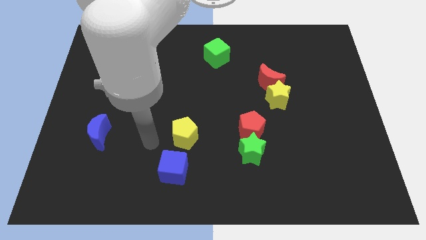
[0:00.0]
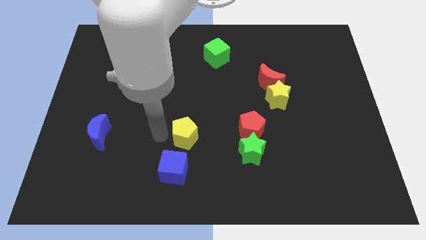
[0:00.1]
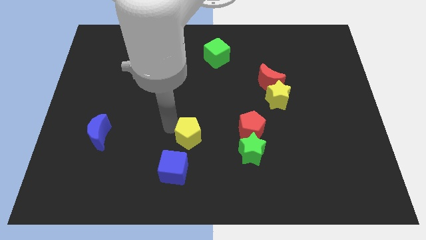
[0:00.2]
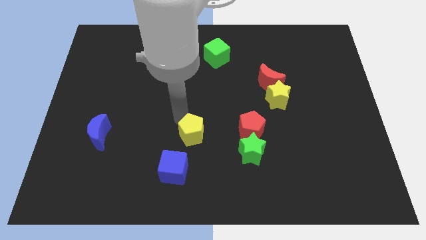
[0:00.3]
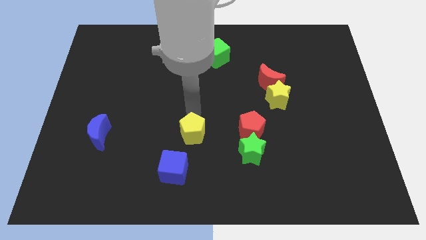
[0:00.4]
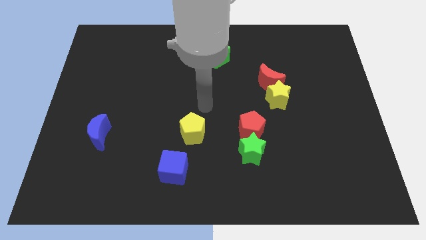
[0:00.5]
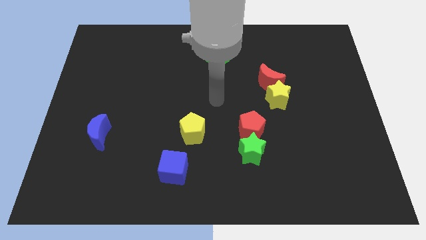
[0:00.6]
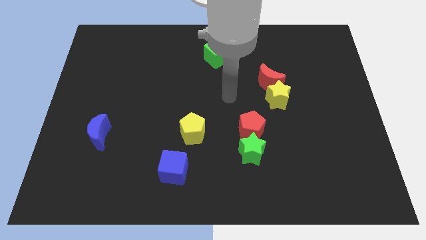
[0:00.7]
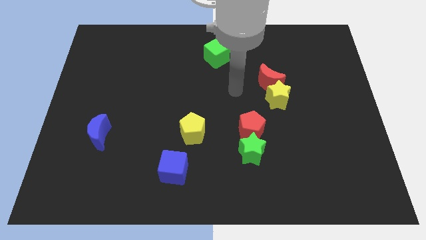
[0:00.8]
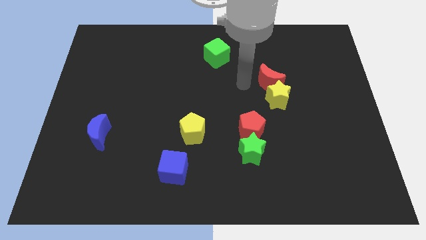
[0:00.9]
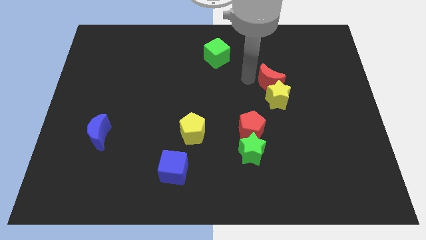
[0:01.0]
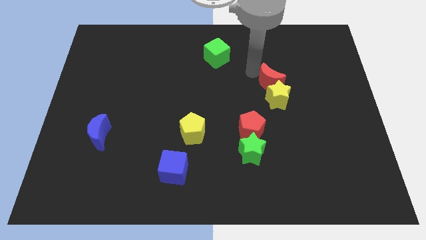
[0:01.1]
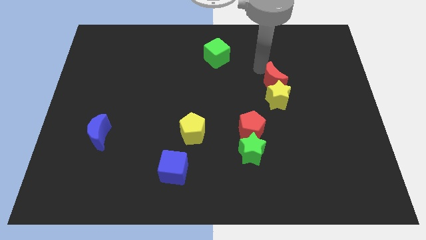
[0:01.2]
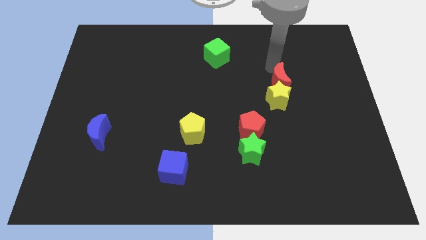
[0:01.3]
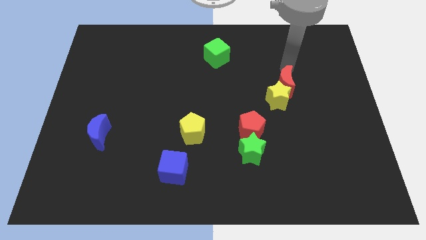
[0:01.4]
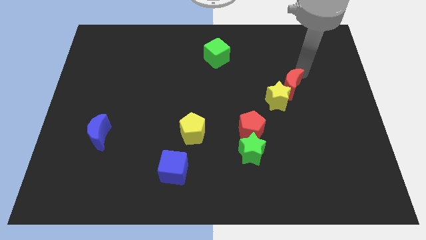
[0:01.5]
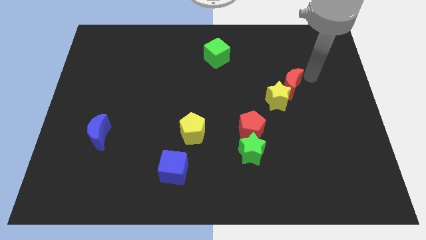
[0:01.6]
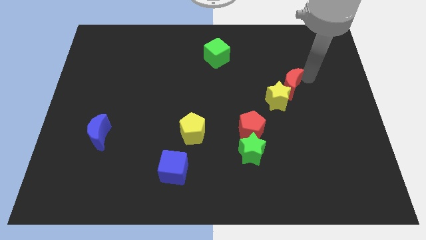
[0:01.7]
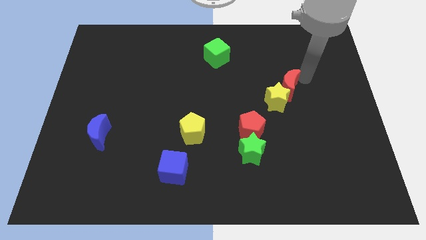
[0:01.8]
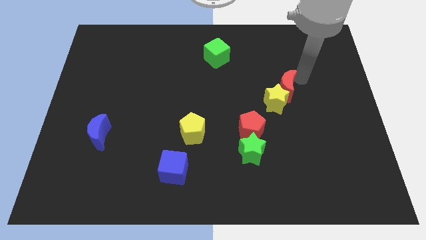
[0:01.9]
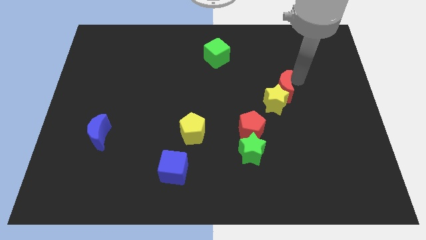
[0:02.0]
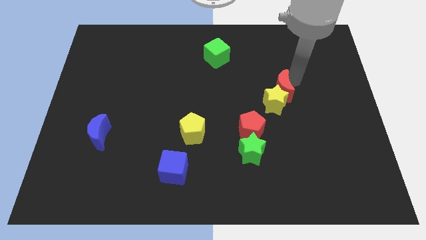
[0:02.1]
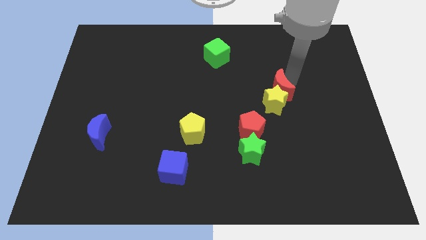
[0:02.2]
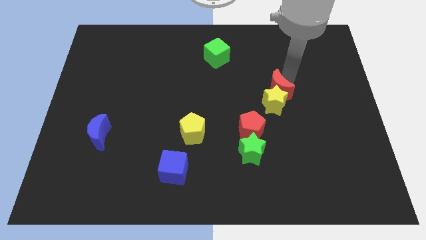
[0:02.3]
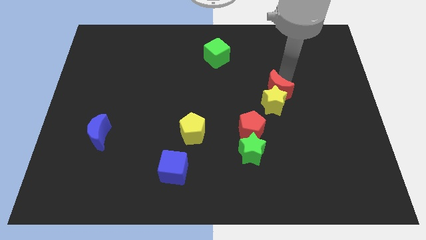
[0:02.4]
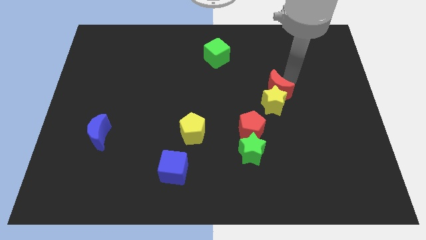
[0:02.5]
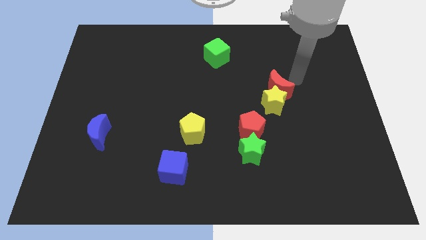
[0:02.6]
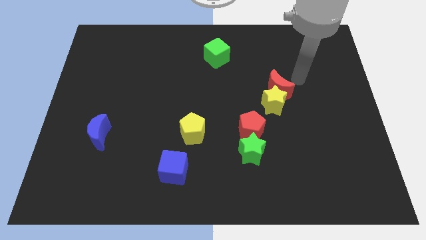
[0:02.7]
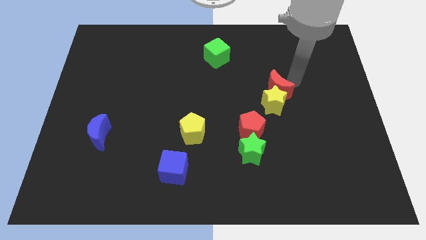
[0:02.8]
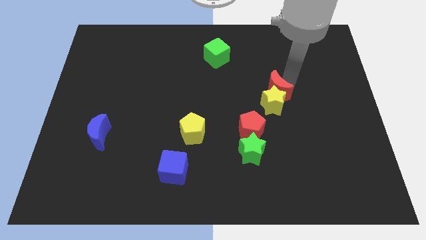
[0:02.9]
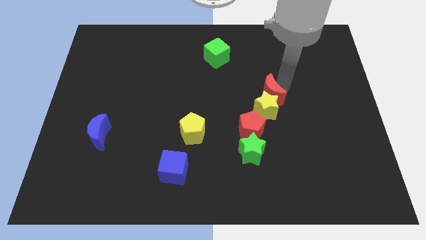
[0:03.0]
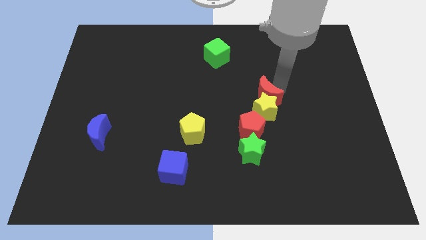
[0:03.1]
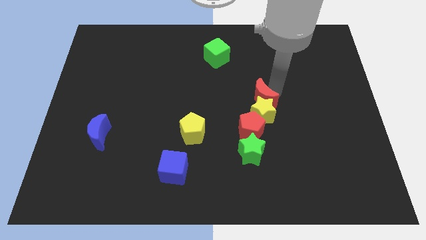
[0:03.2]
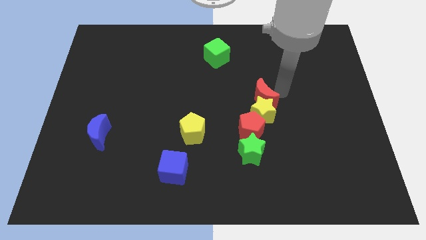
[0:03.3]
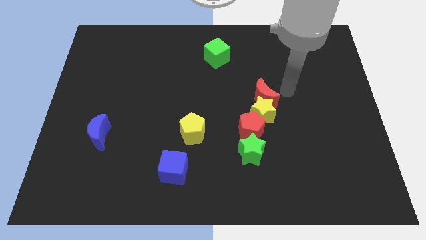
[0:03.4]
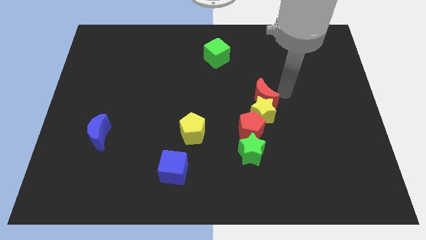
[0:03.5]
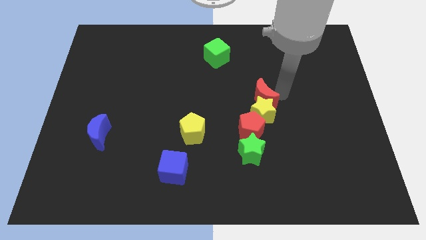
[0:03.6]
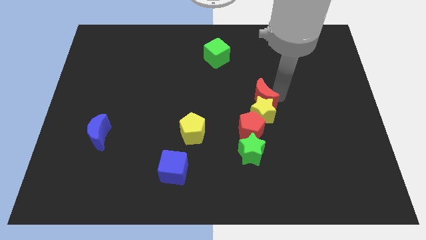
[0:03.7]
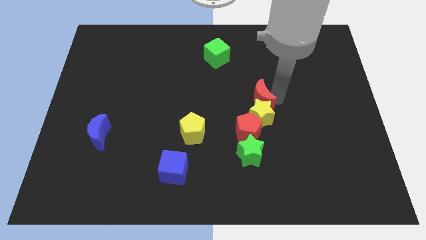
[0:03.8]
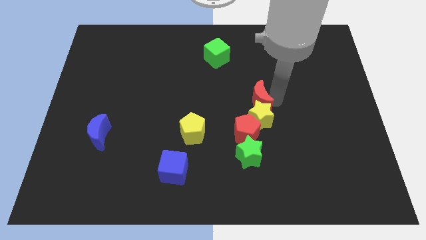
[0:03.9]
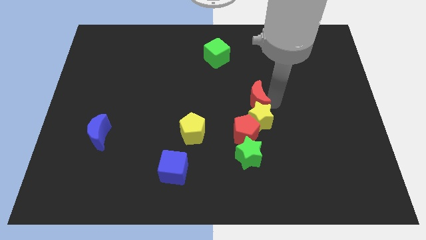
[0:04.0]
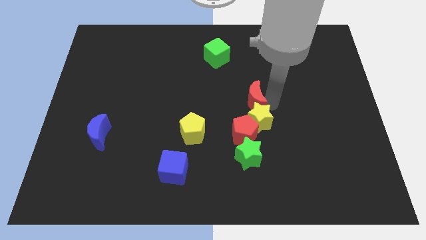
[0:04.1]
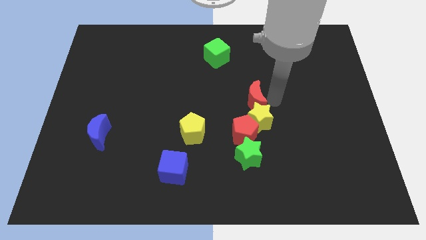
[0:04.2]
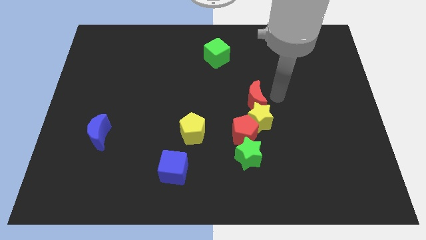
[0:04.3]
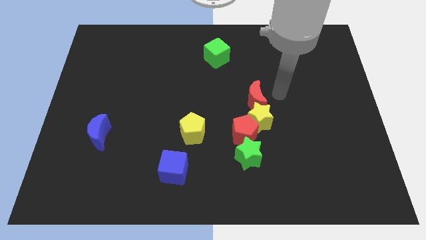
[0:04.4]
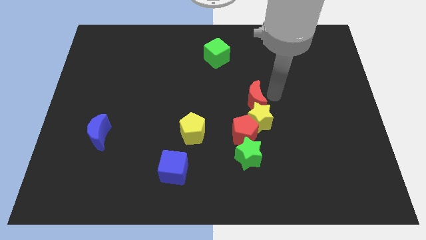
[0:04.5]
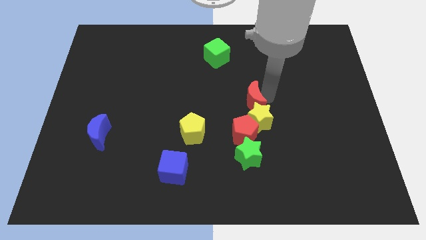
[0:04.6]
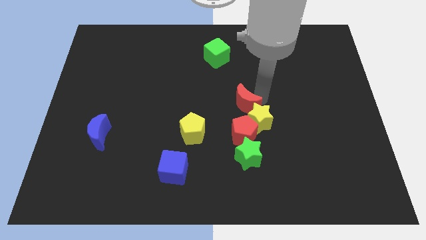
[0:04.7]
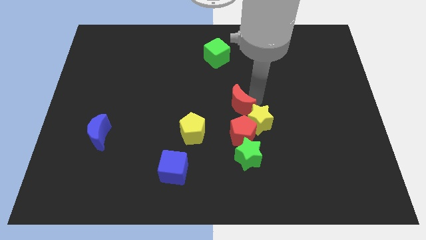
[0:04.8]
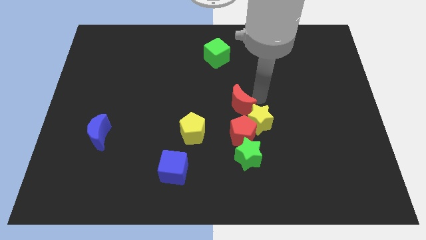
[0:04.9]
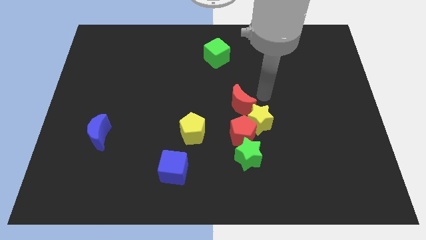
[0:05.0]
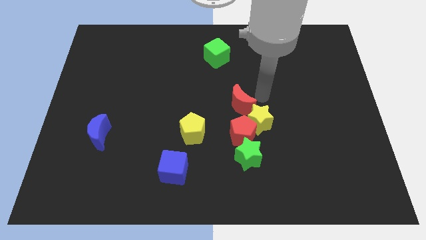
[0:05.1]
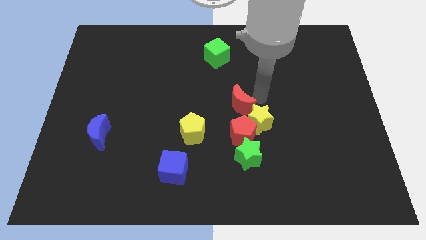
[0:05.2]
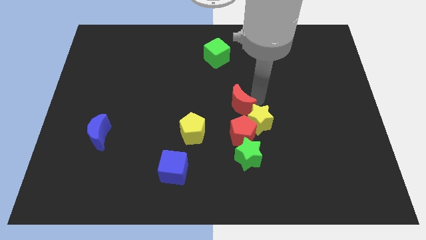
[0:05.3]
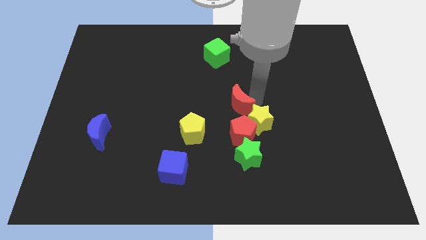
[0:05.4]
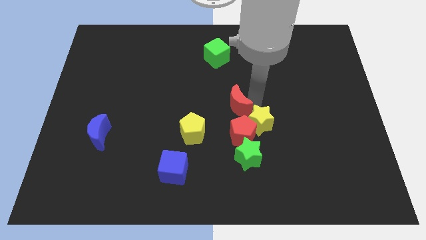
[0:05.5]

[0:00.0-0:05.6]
move the red moon to the top right side of the yellow pentagon

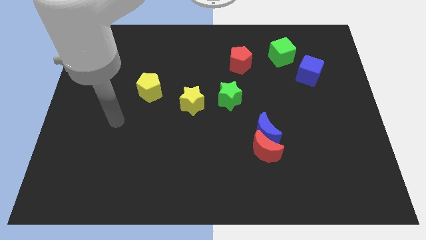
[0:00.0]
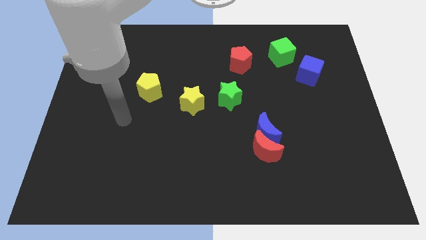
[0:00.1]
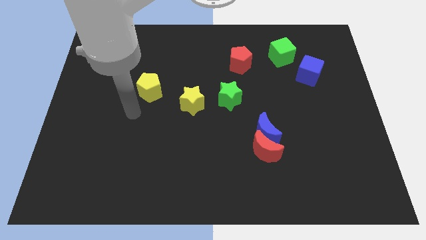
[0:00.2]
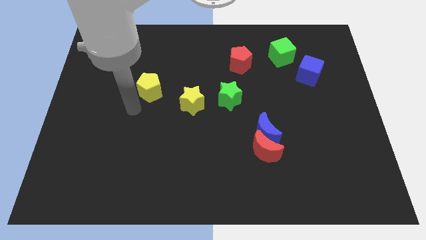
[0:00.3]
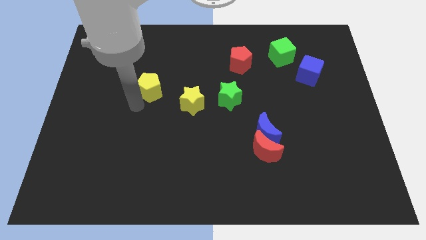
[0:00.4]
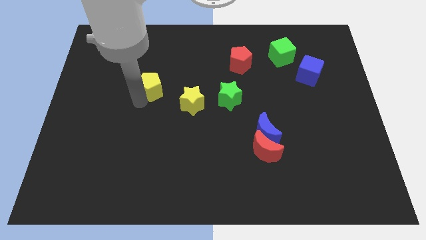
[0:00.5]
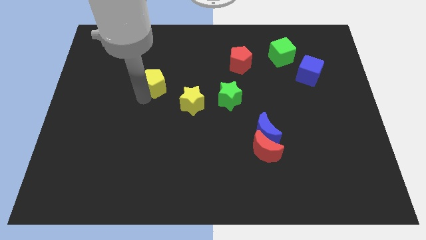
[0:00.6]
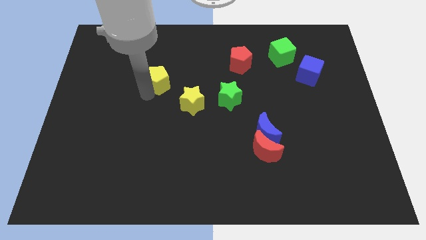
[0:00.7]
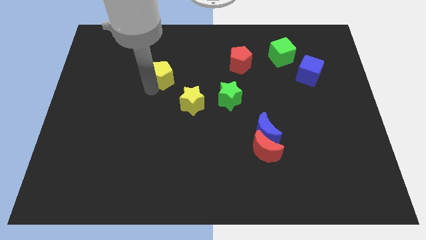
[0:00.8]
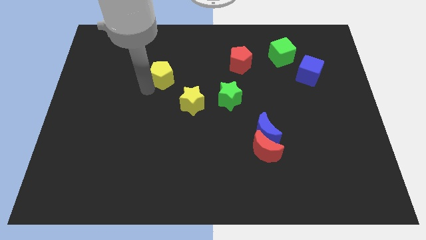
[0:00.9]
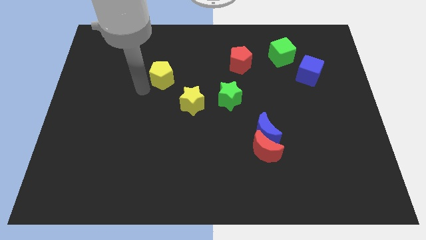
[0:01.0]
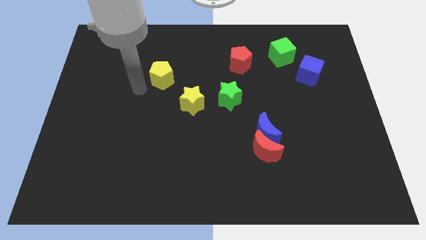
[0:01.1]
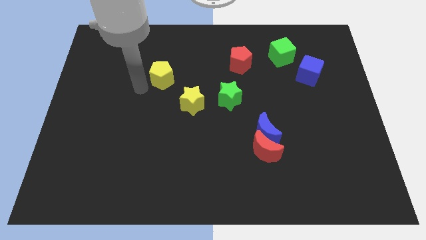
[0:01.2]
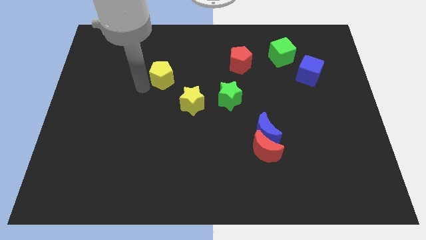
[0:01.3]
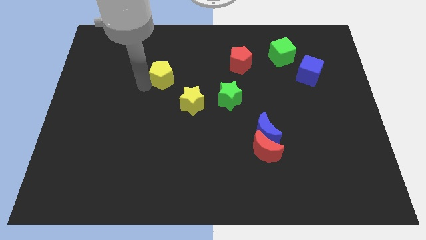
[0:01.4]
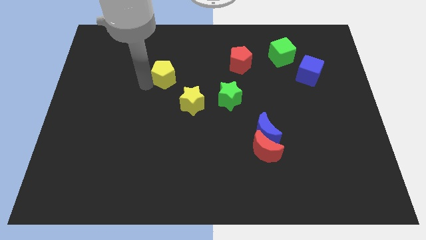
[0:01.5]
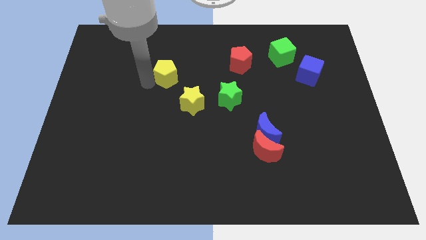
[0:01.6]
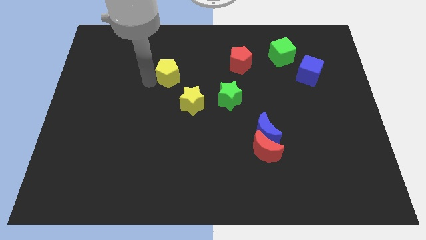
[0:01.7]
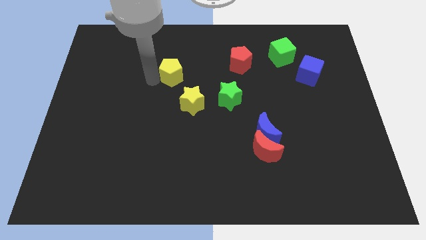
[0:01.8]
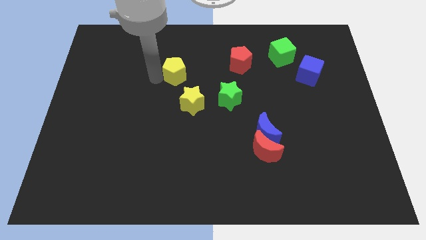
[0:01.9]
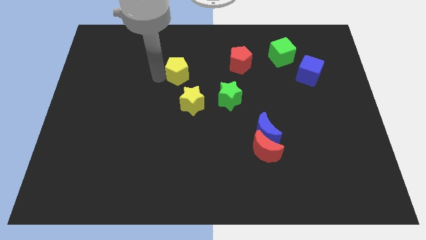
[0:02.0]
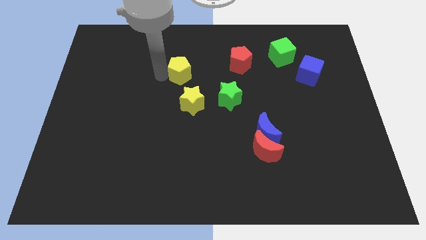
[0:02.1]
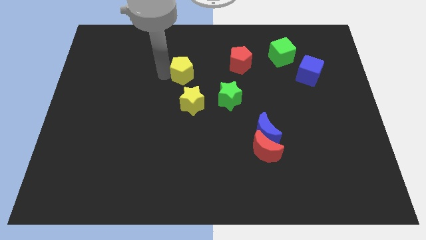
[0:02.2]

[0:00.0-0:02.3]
move the yellow pentagon just left of the red pentagon
